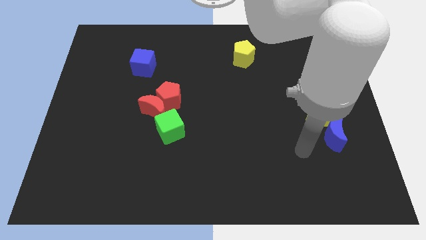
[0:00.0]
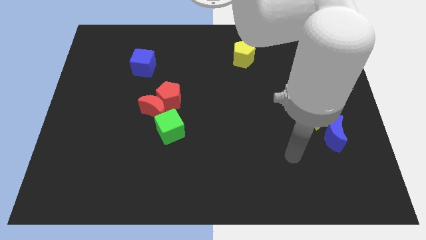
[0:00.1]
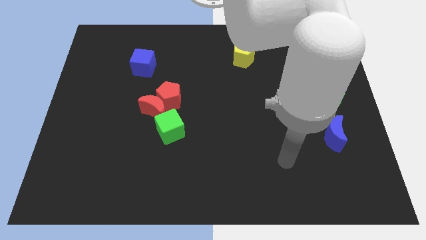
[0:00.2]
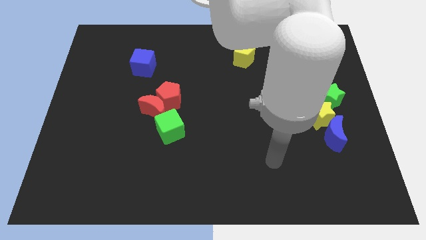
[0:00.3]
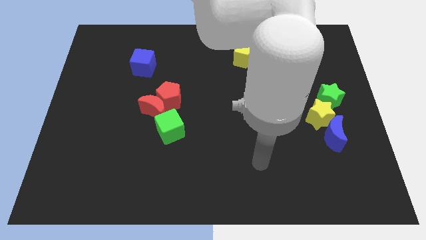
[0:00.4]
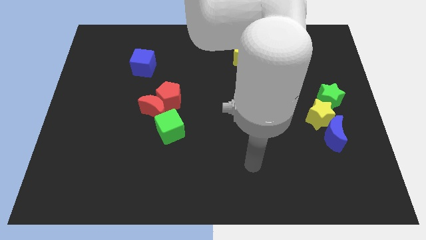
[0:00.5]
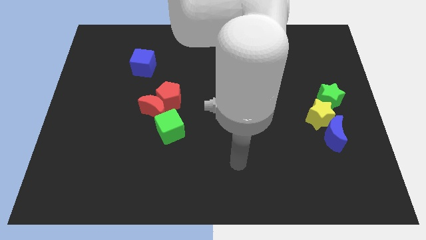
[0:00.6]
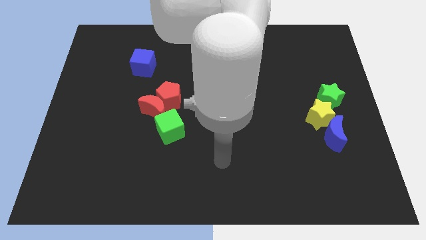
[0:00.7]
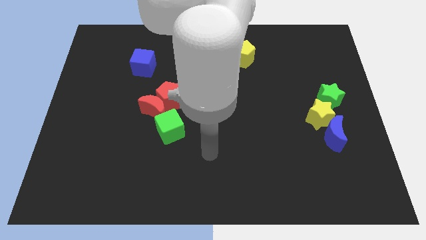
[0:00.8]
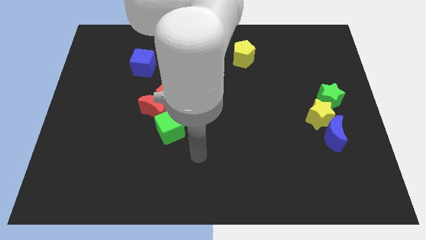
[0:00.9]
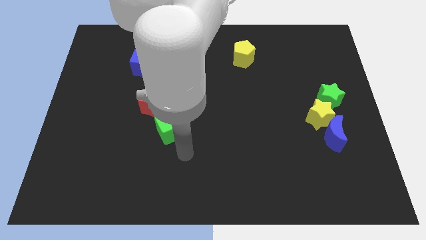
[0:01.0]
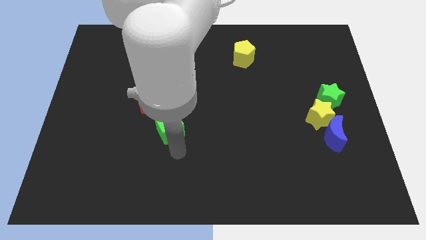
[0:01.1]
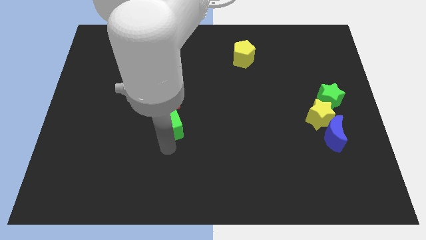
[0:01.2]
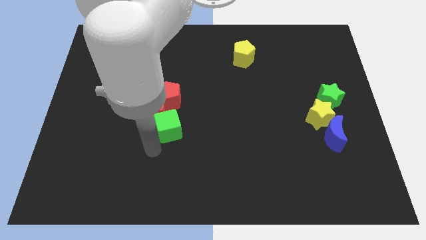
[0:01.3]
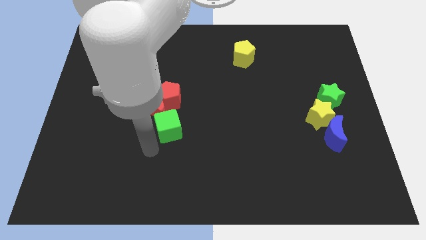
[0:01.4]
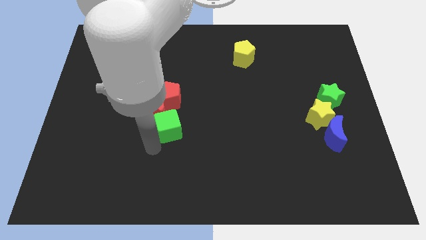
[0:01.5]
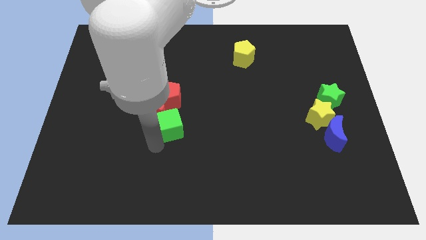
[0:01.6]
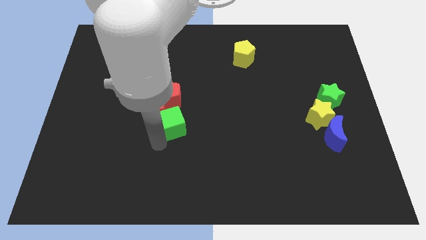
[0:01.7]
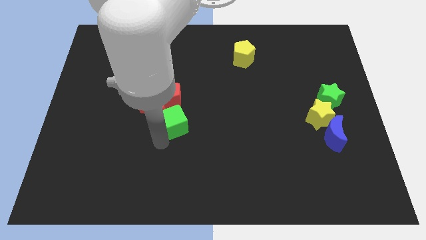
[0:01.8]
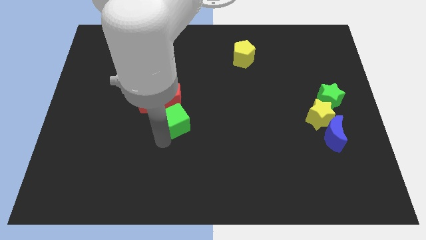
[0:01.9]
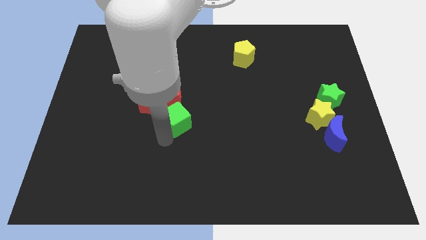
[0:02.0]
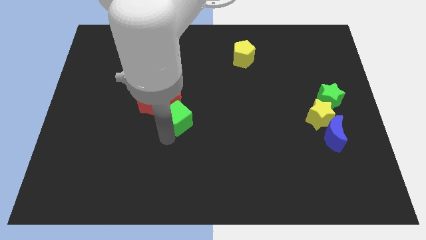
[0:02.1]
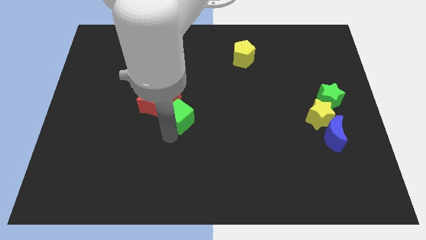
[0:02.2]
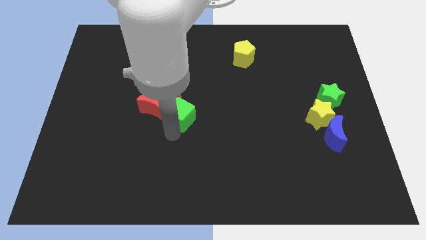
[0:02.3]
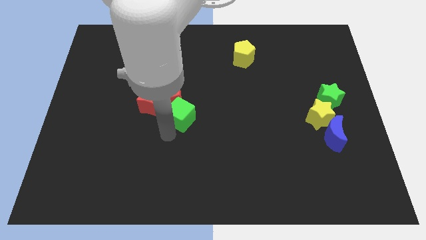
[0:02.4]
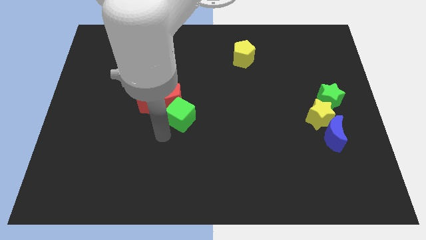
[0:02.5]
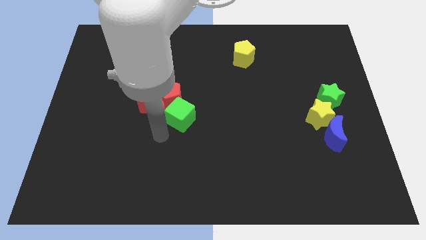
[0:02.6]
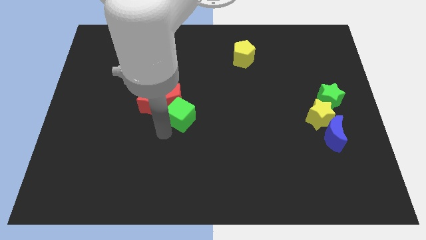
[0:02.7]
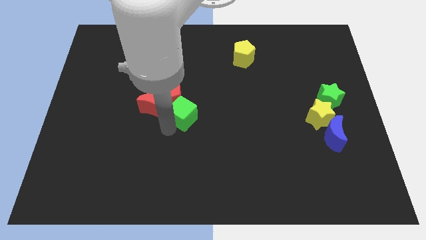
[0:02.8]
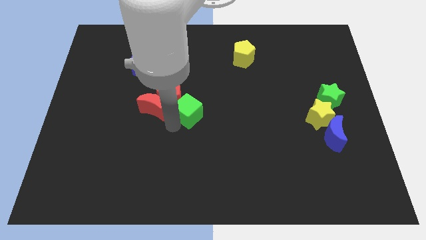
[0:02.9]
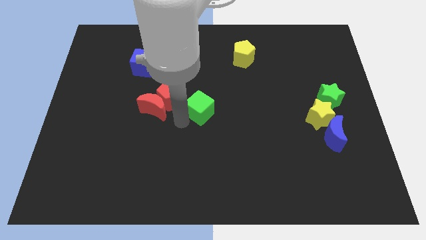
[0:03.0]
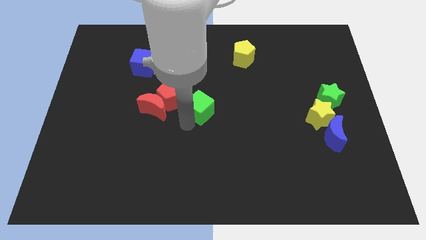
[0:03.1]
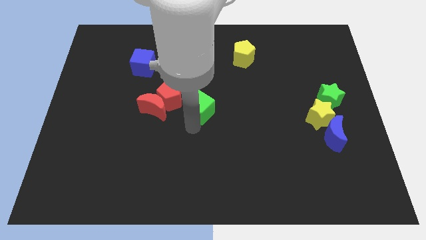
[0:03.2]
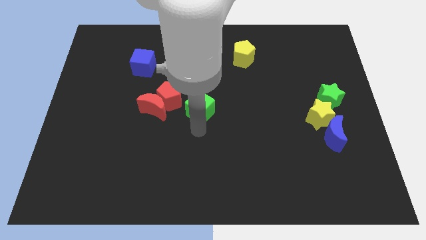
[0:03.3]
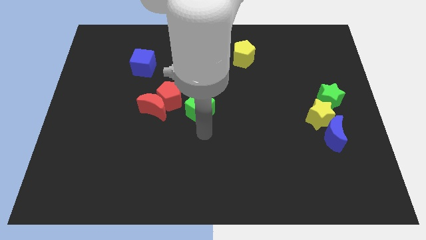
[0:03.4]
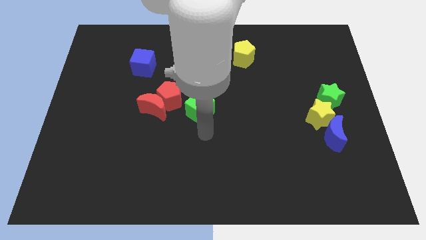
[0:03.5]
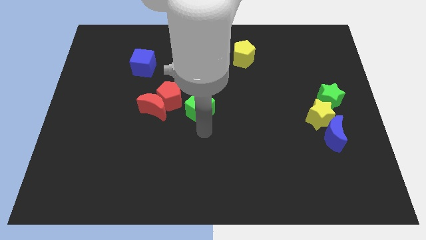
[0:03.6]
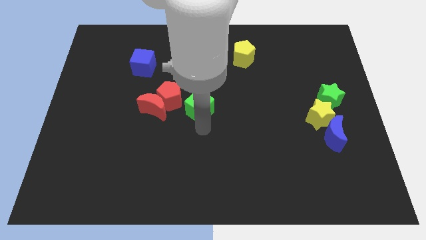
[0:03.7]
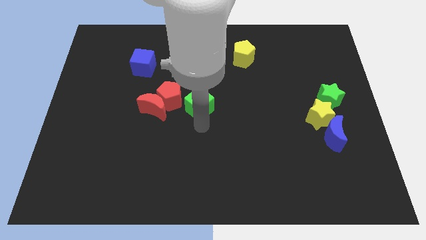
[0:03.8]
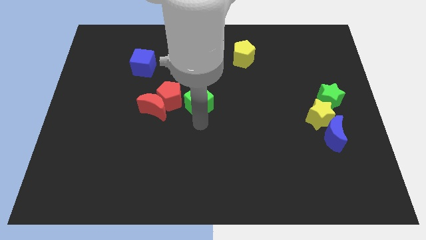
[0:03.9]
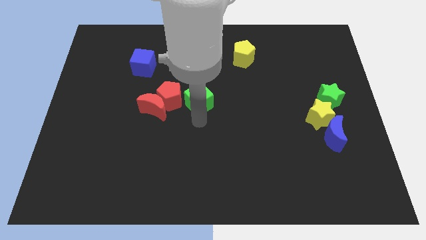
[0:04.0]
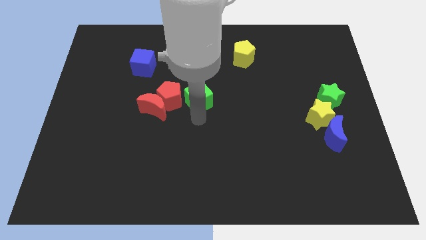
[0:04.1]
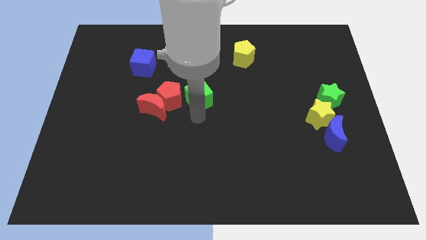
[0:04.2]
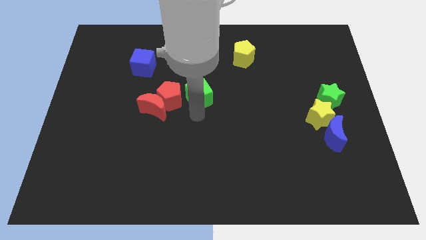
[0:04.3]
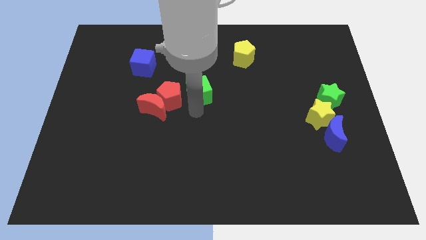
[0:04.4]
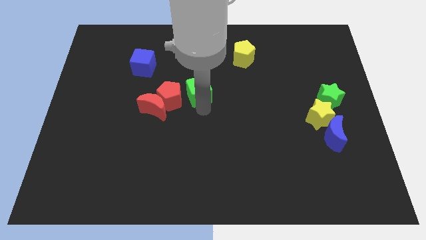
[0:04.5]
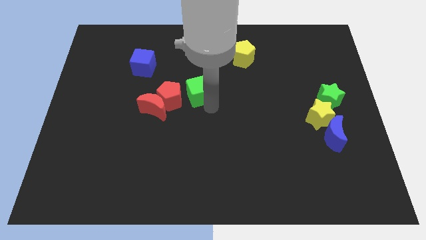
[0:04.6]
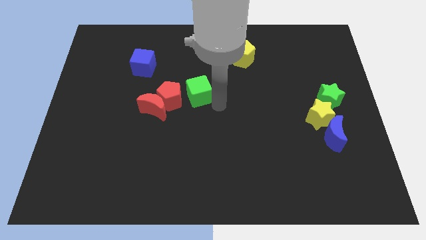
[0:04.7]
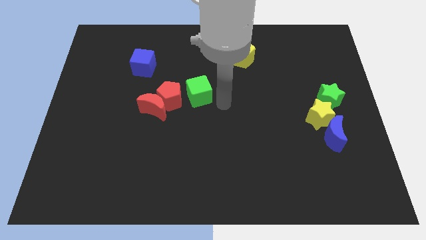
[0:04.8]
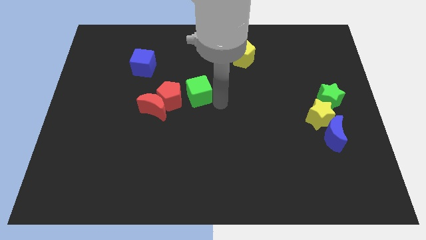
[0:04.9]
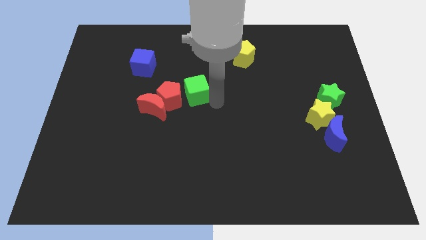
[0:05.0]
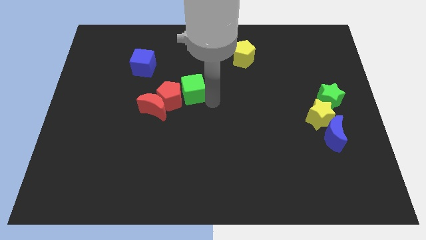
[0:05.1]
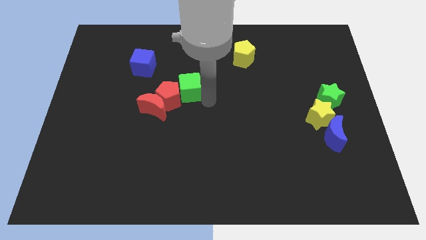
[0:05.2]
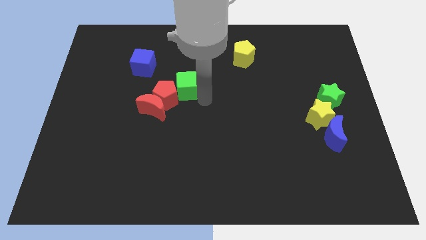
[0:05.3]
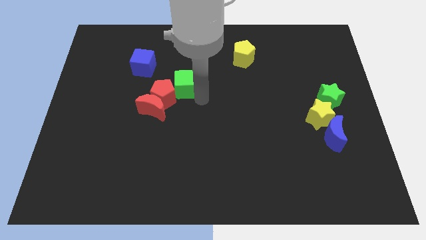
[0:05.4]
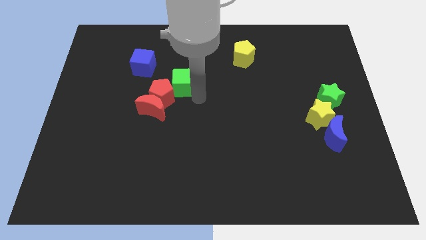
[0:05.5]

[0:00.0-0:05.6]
push the green cube to the bottom right side of the blue cube

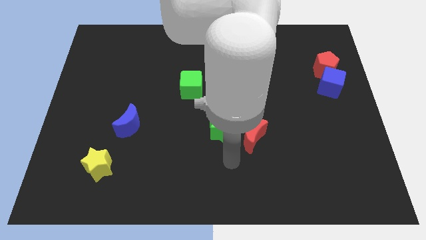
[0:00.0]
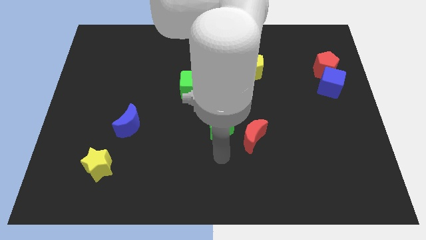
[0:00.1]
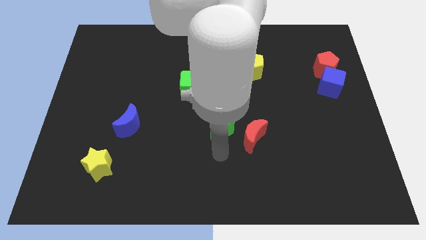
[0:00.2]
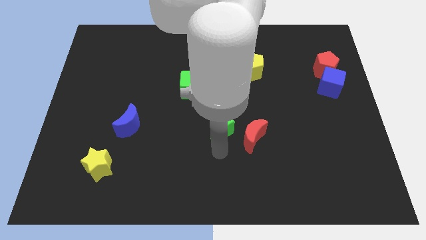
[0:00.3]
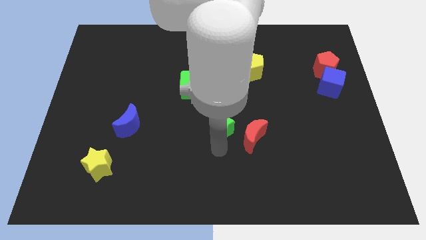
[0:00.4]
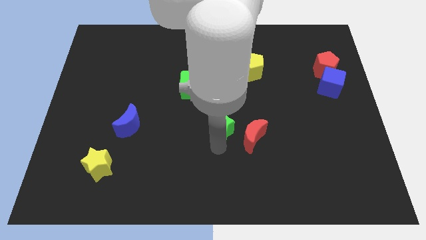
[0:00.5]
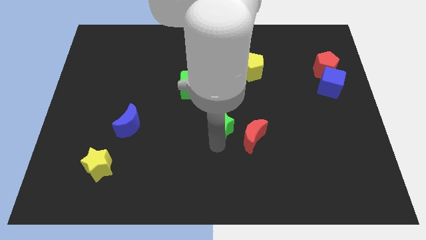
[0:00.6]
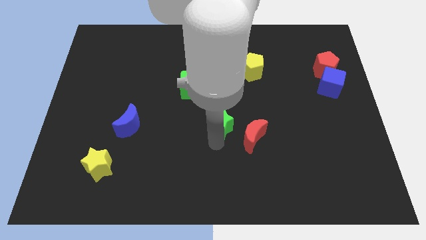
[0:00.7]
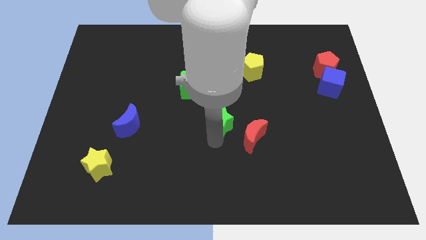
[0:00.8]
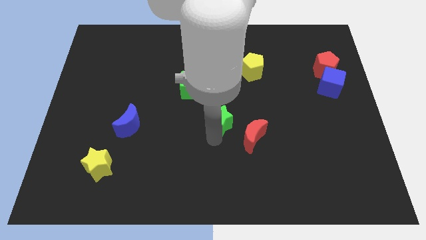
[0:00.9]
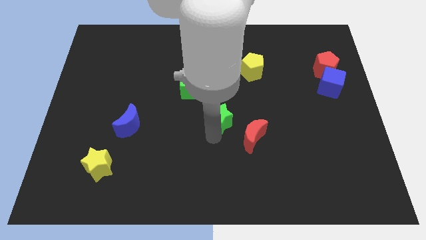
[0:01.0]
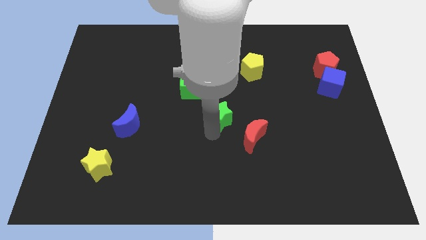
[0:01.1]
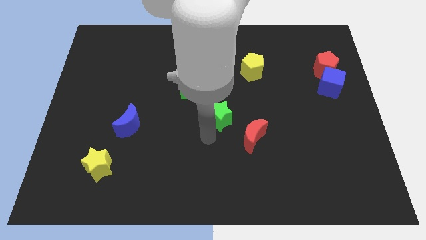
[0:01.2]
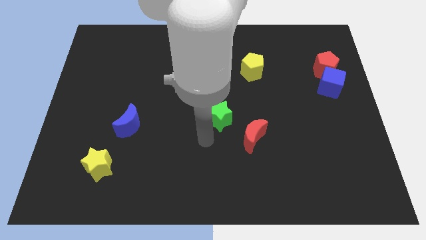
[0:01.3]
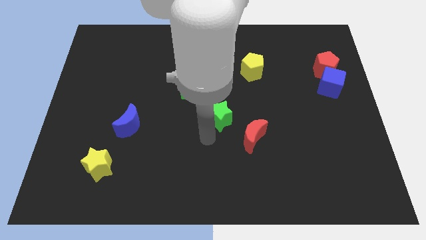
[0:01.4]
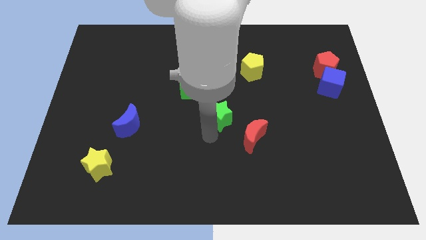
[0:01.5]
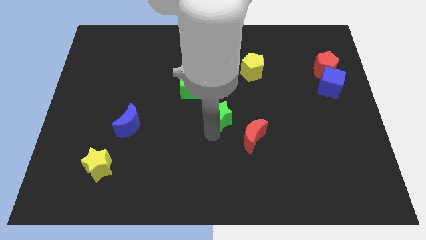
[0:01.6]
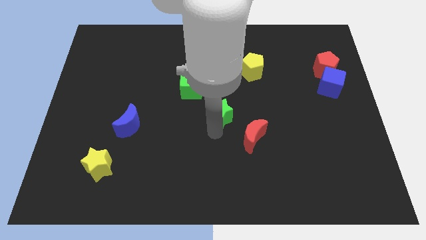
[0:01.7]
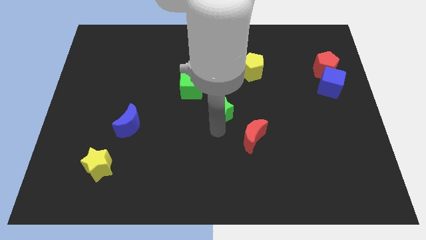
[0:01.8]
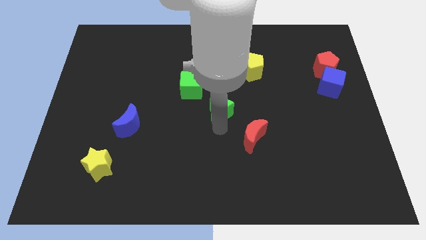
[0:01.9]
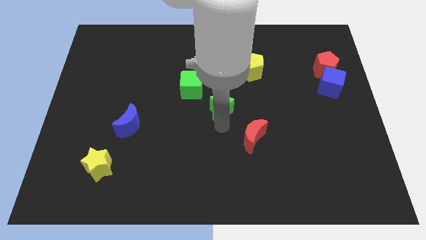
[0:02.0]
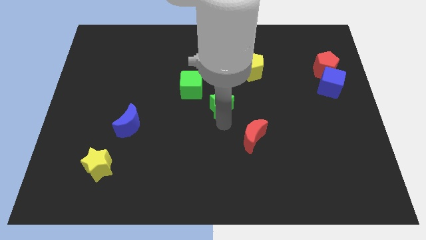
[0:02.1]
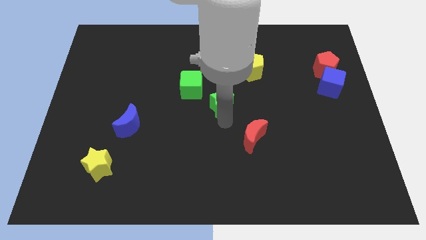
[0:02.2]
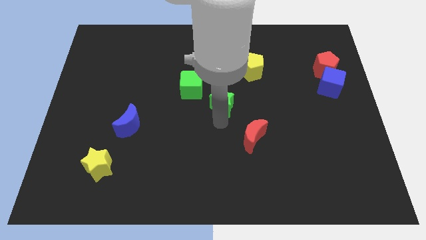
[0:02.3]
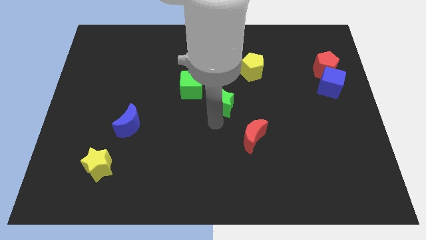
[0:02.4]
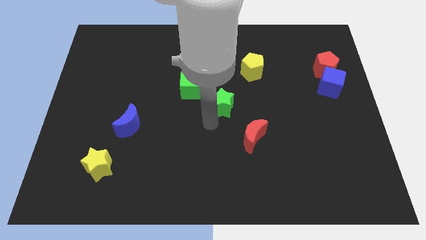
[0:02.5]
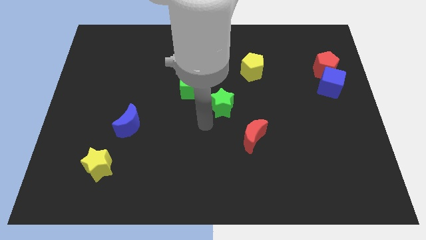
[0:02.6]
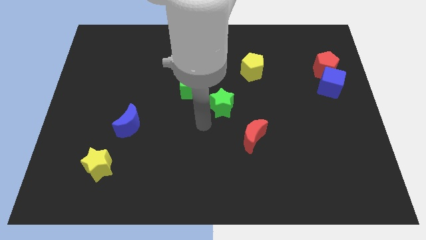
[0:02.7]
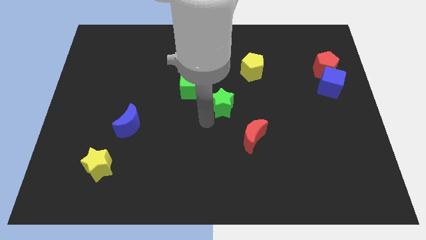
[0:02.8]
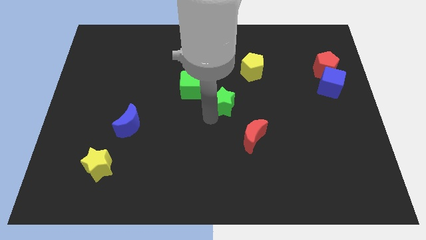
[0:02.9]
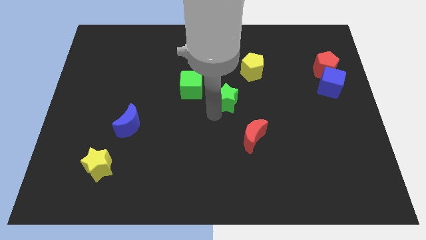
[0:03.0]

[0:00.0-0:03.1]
move the green star diagonally down and to the left of the yellow pentagon
